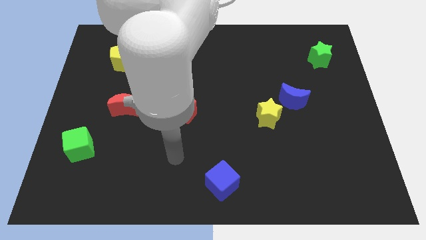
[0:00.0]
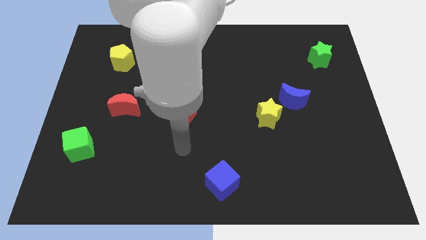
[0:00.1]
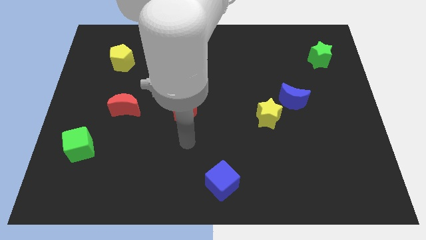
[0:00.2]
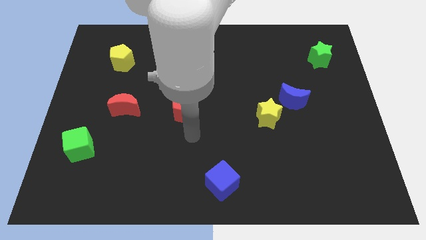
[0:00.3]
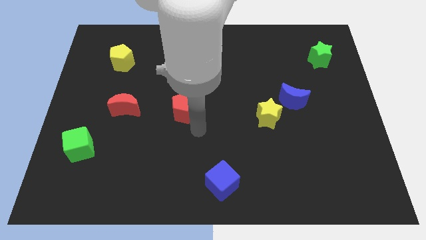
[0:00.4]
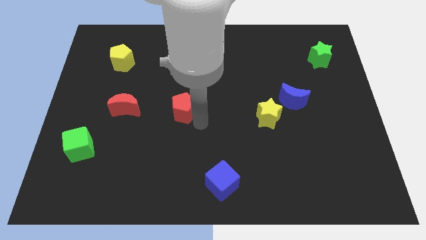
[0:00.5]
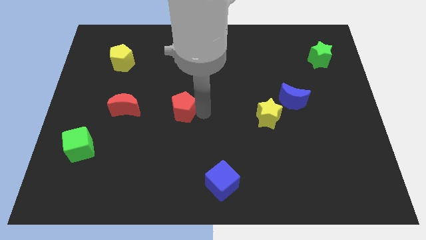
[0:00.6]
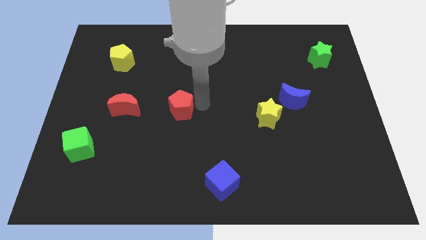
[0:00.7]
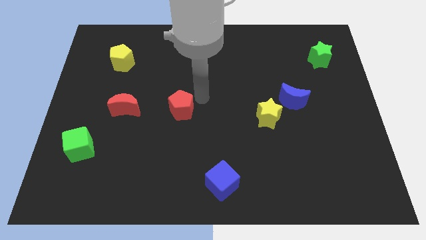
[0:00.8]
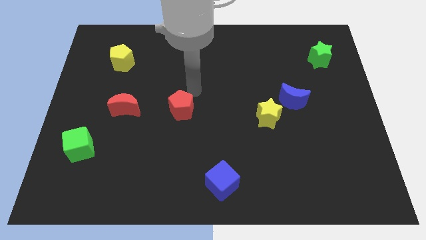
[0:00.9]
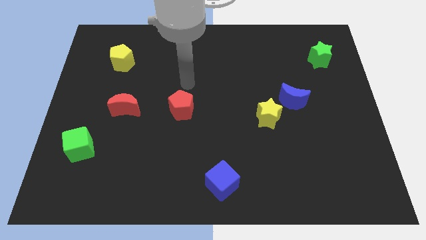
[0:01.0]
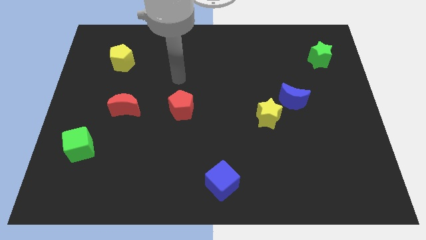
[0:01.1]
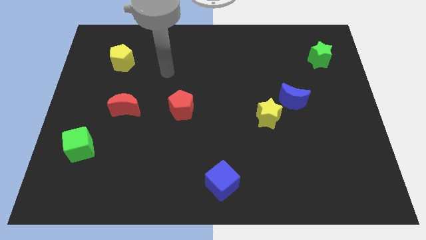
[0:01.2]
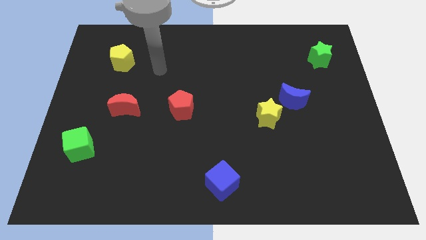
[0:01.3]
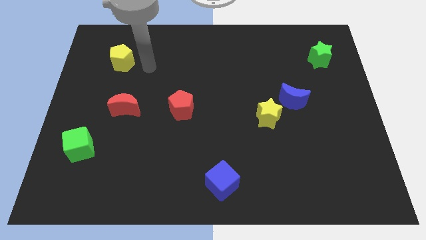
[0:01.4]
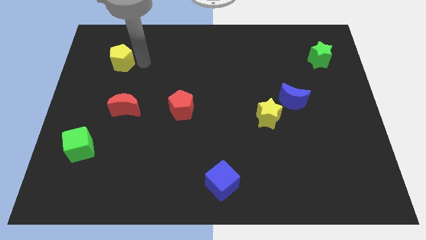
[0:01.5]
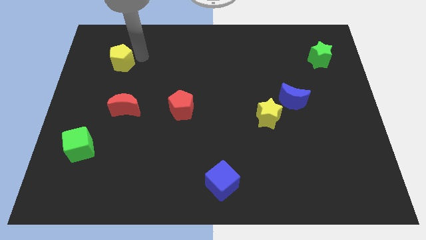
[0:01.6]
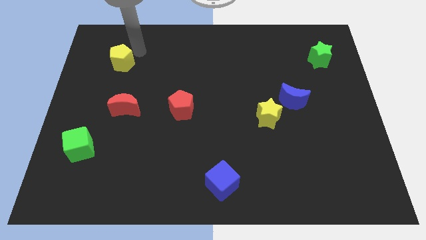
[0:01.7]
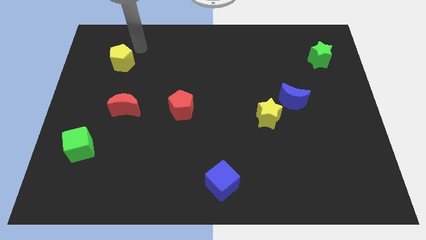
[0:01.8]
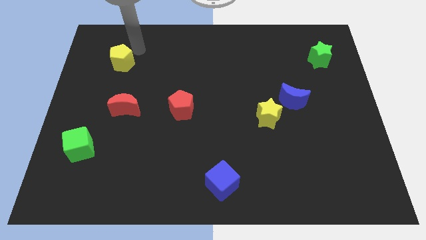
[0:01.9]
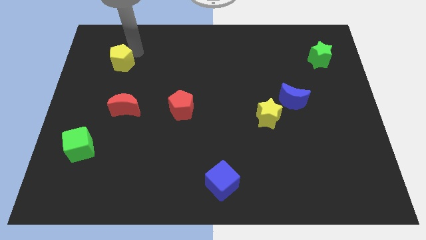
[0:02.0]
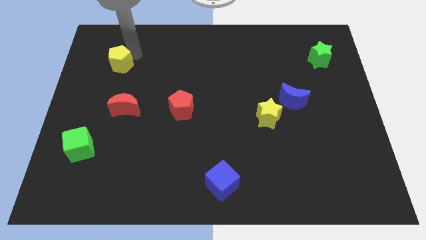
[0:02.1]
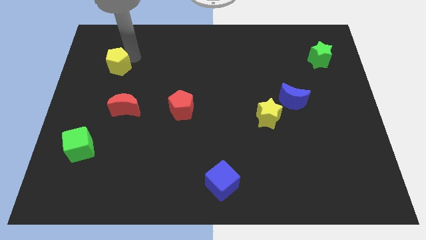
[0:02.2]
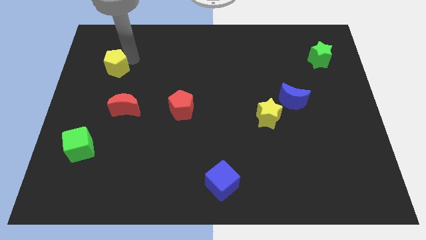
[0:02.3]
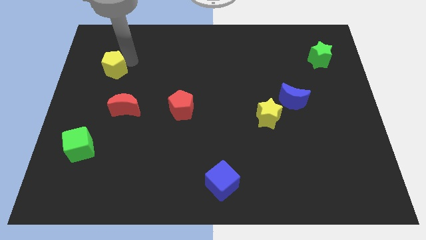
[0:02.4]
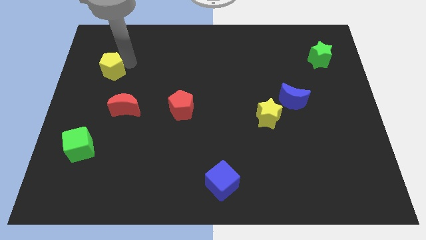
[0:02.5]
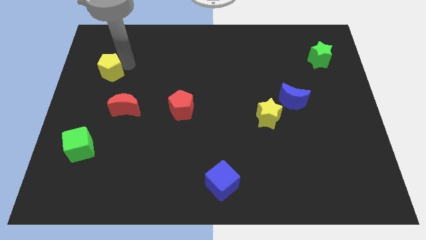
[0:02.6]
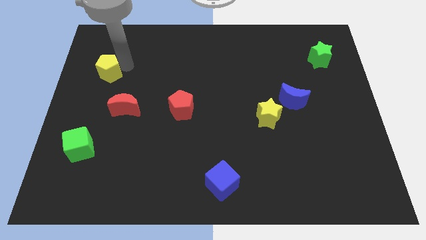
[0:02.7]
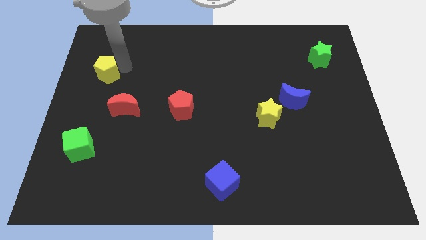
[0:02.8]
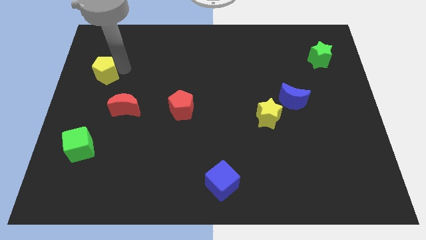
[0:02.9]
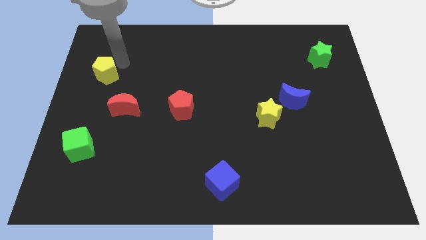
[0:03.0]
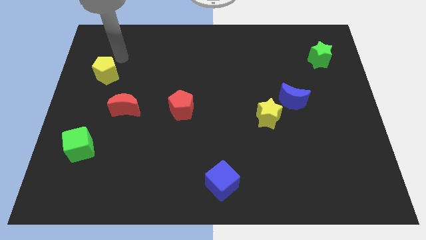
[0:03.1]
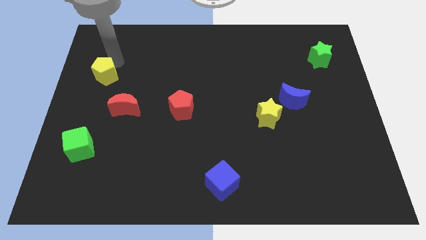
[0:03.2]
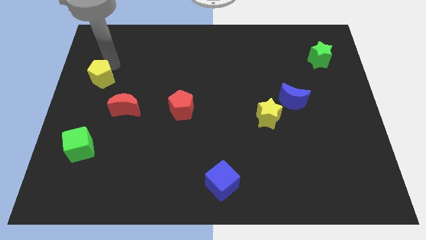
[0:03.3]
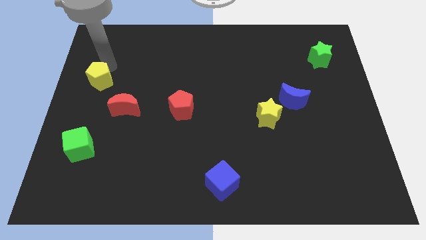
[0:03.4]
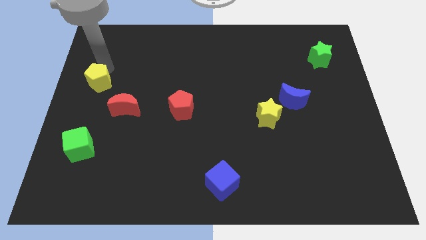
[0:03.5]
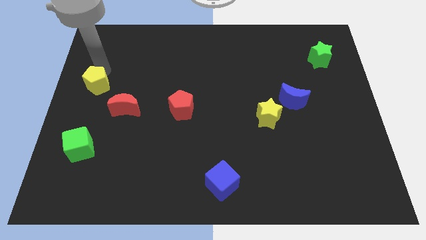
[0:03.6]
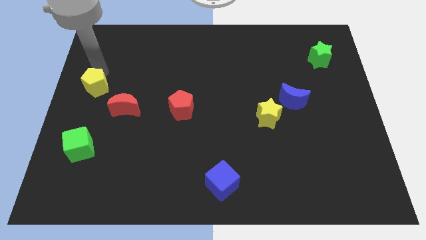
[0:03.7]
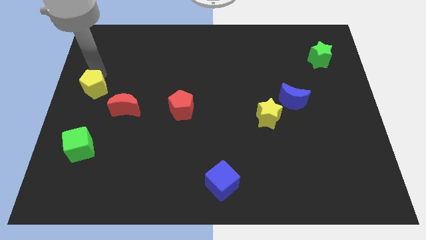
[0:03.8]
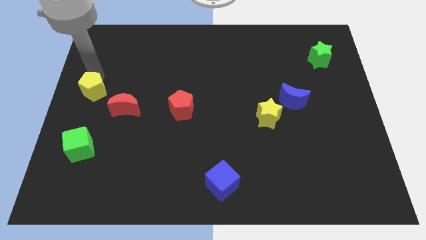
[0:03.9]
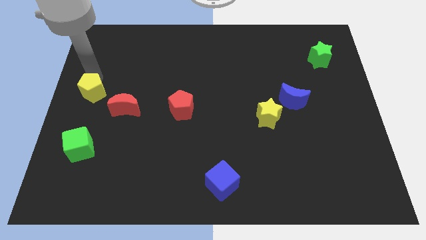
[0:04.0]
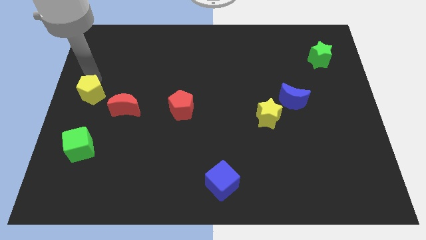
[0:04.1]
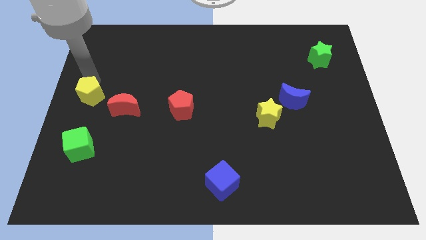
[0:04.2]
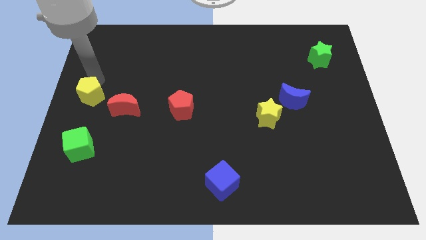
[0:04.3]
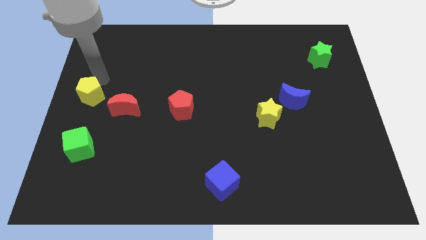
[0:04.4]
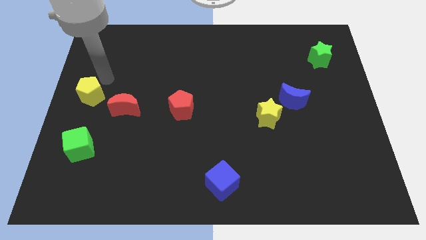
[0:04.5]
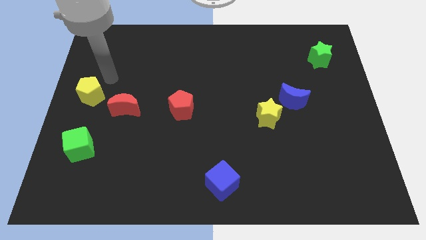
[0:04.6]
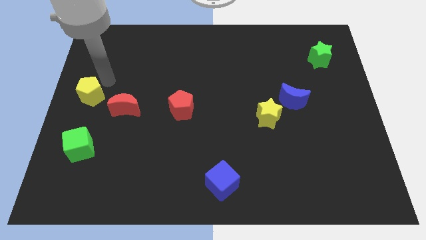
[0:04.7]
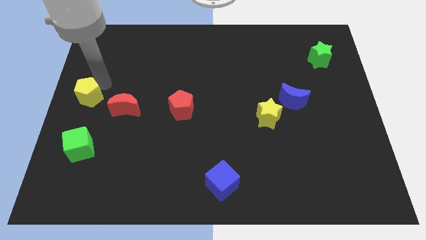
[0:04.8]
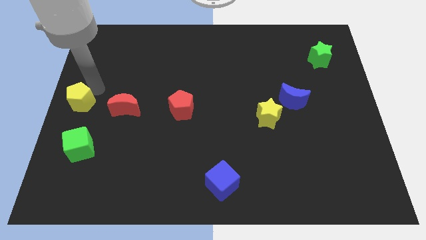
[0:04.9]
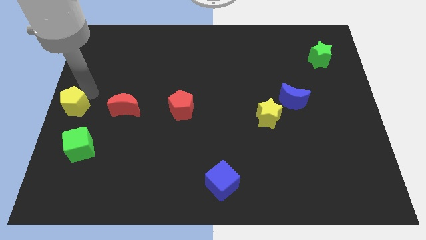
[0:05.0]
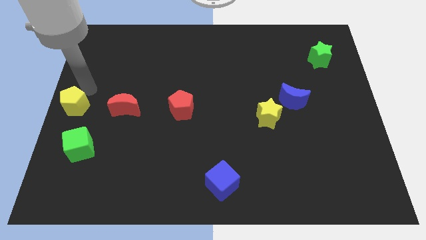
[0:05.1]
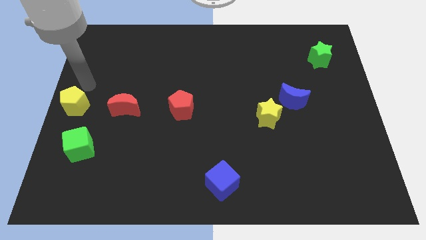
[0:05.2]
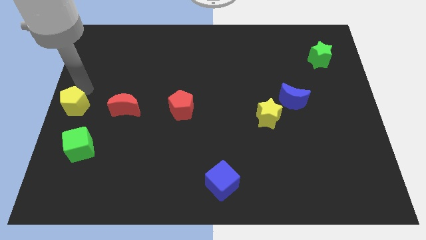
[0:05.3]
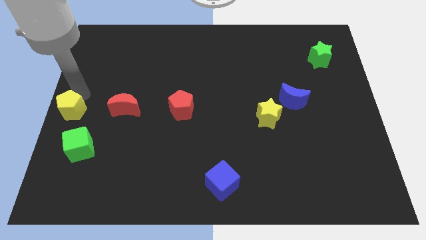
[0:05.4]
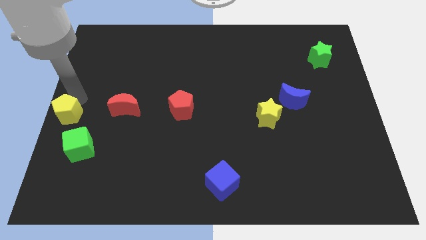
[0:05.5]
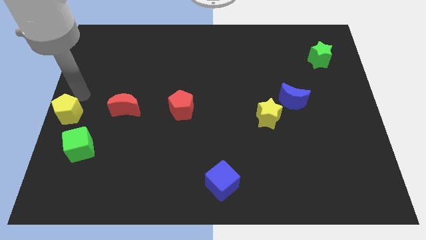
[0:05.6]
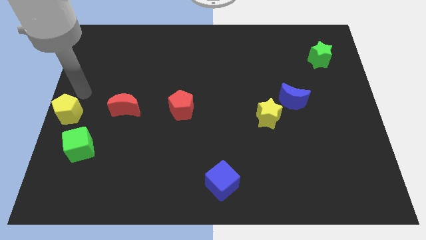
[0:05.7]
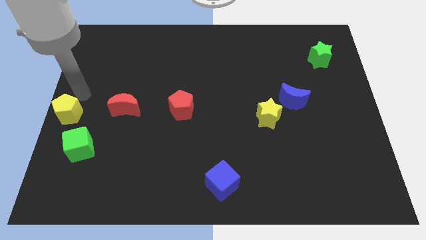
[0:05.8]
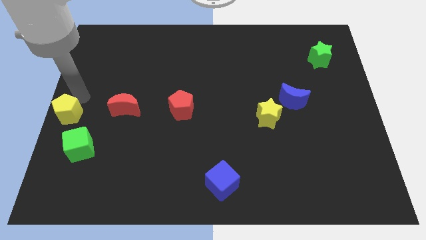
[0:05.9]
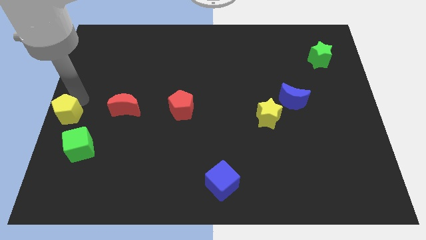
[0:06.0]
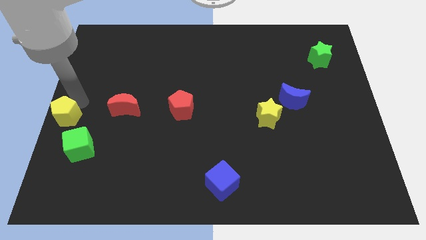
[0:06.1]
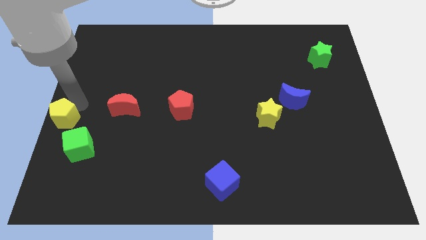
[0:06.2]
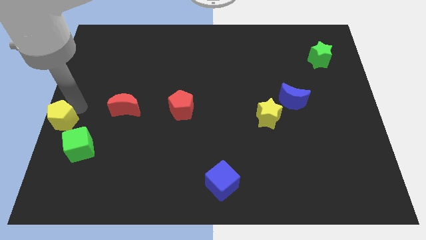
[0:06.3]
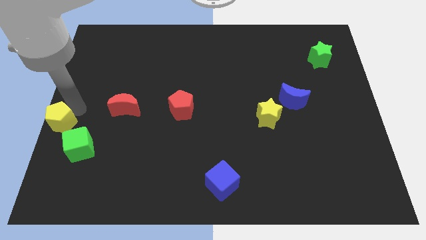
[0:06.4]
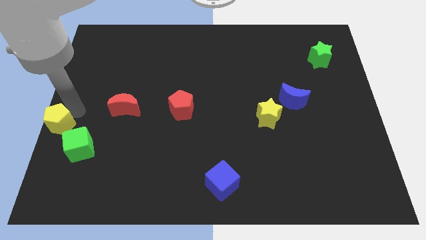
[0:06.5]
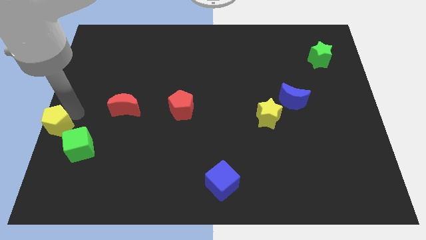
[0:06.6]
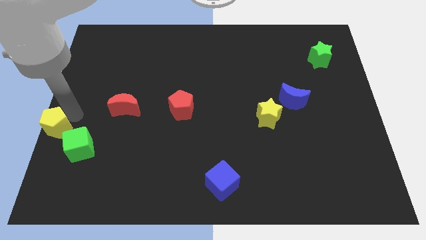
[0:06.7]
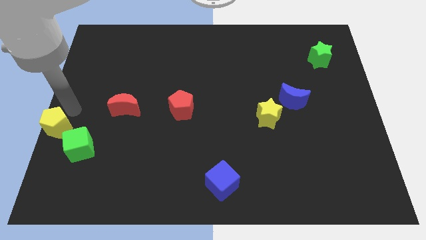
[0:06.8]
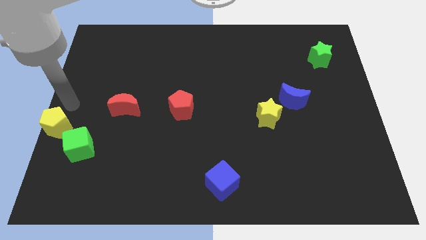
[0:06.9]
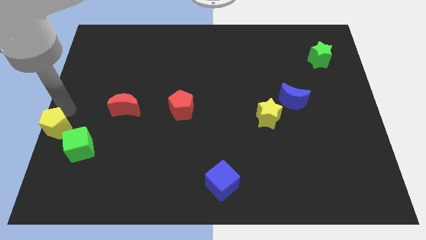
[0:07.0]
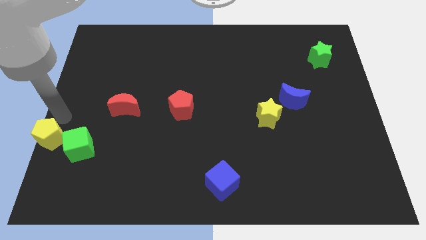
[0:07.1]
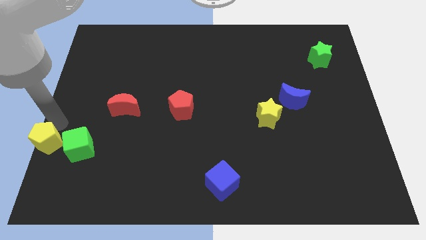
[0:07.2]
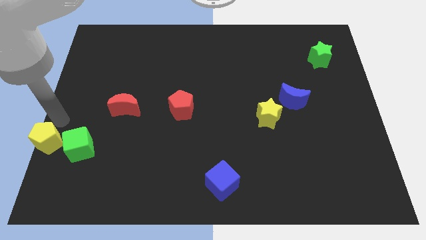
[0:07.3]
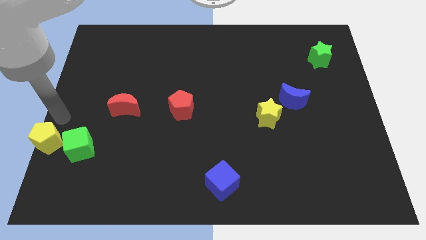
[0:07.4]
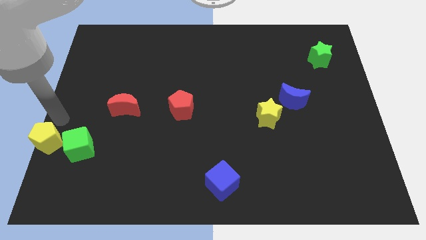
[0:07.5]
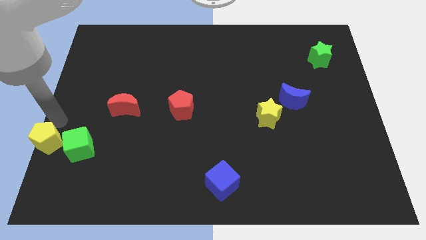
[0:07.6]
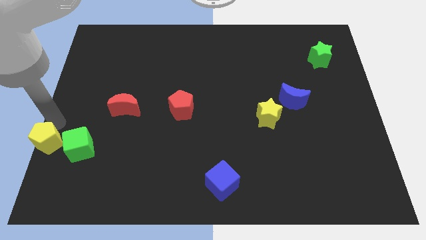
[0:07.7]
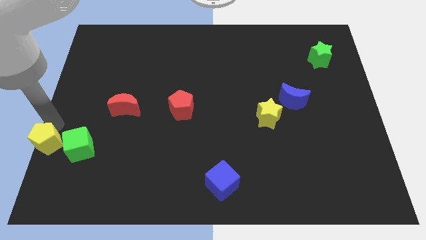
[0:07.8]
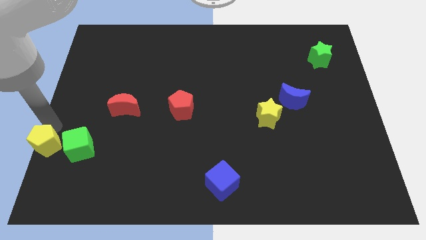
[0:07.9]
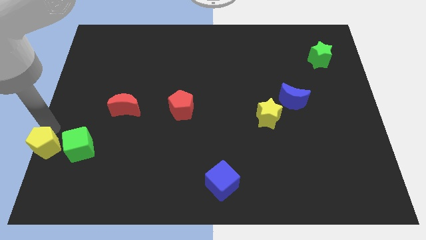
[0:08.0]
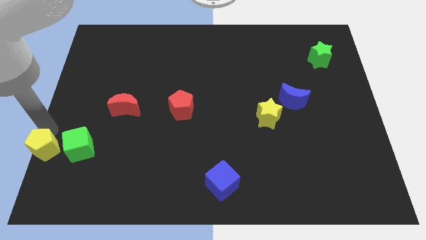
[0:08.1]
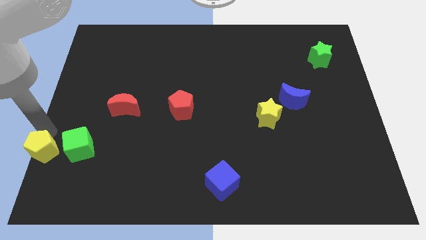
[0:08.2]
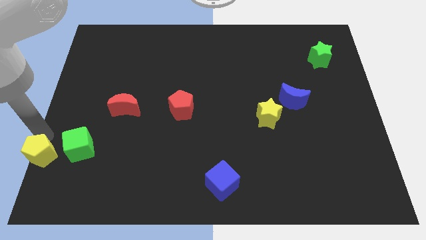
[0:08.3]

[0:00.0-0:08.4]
push the yellow pentagon to the lower left corner
